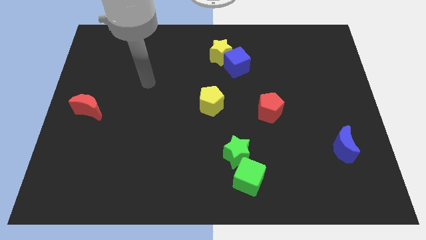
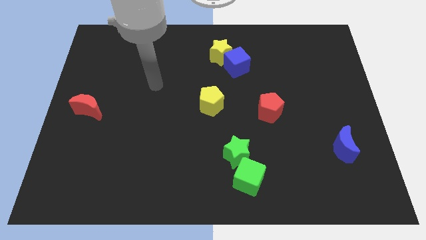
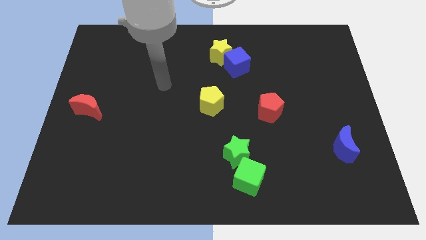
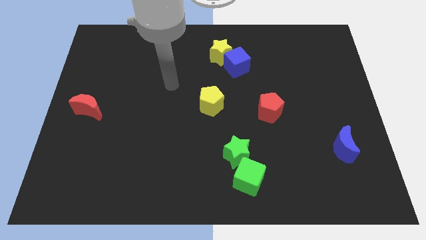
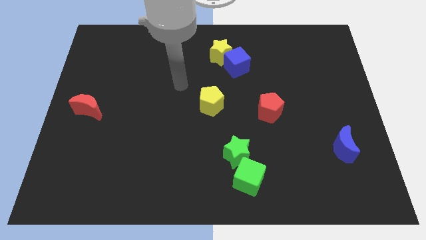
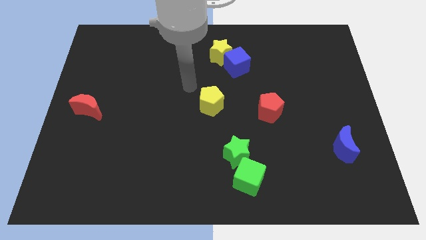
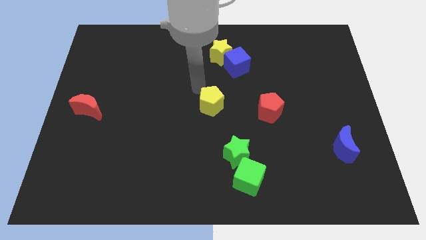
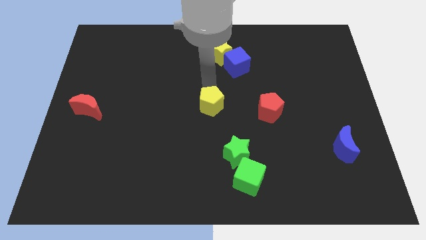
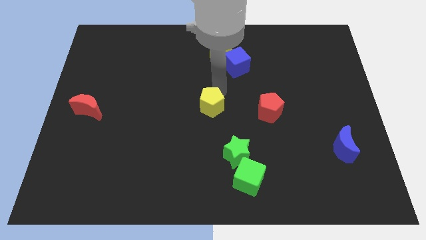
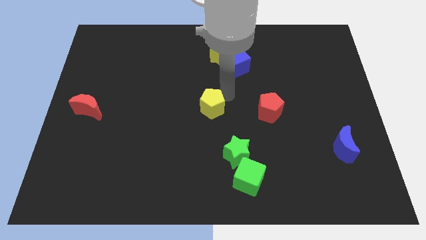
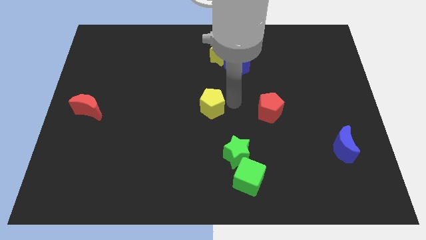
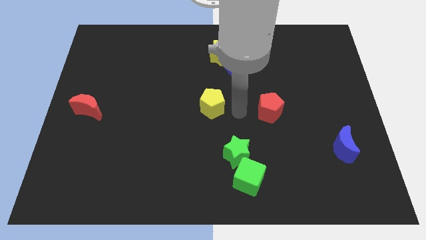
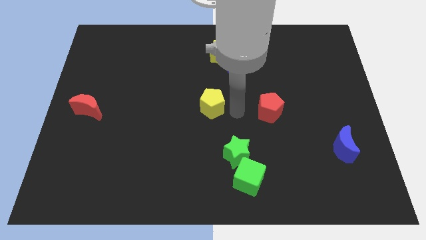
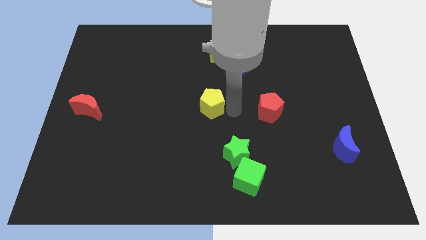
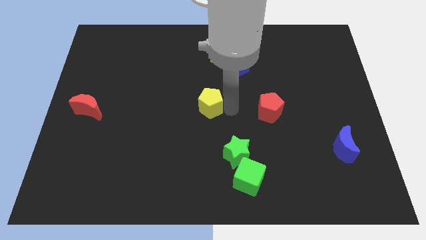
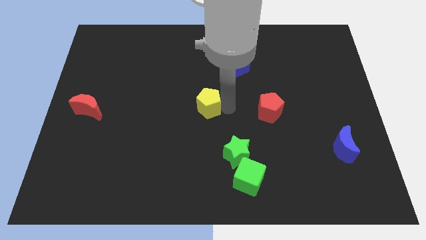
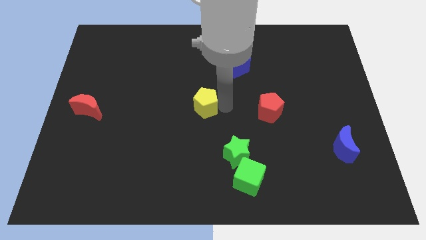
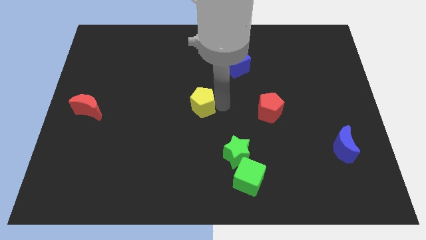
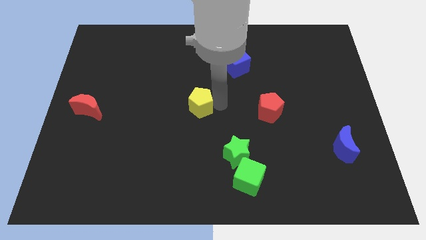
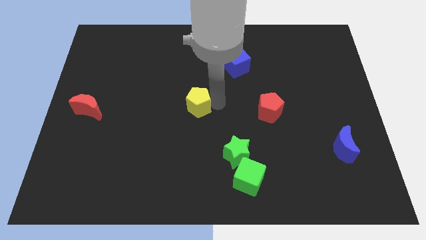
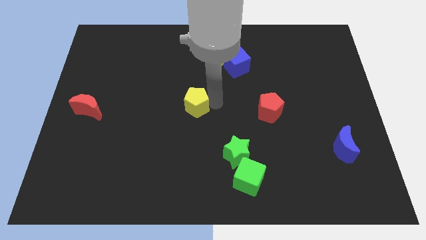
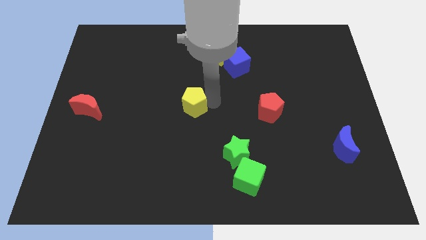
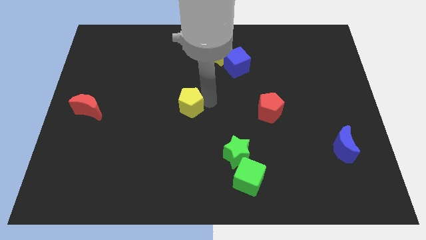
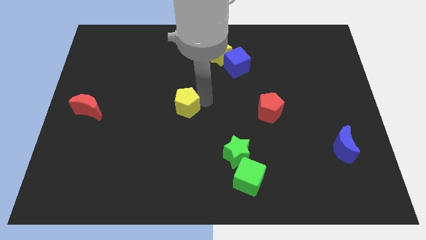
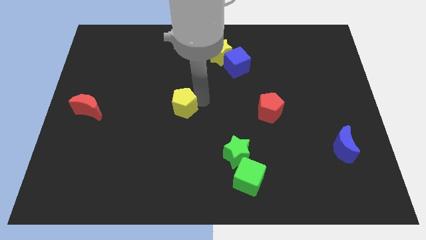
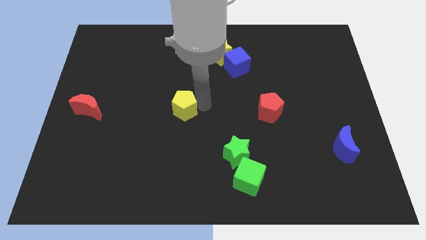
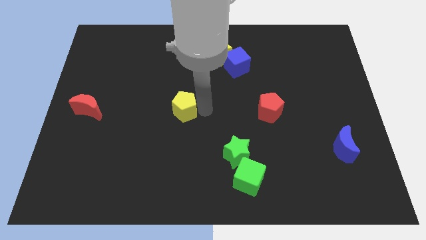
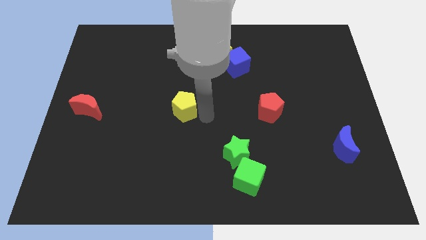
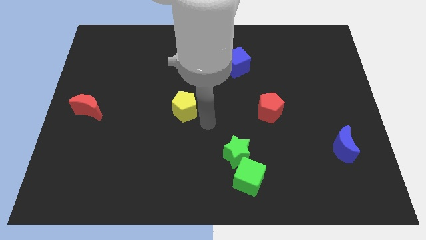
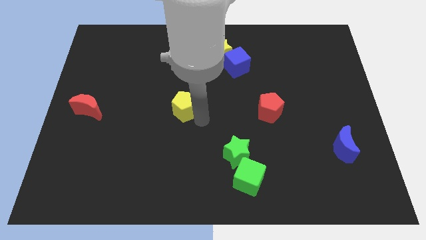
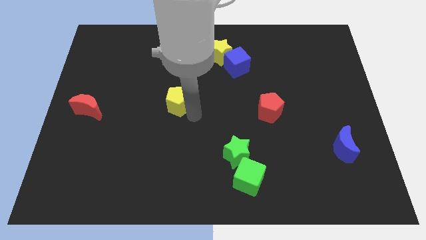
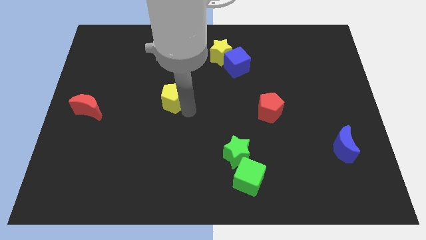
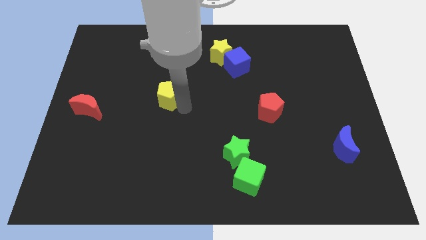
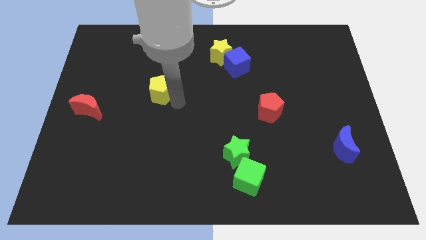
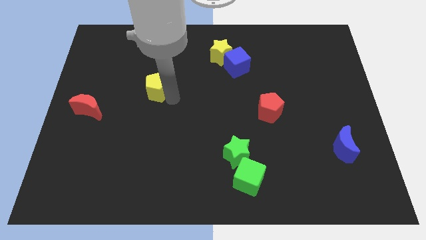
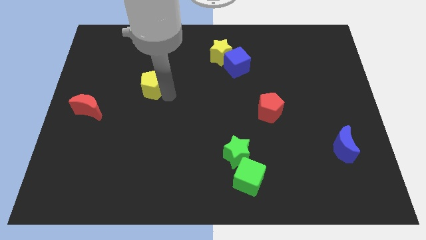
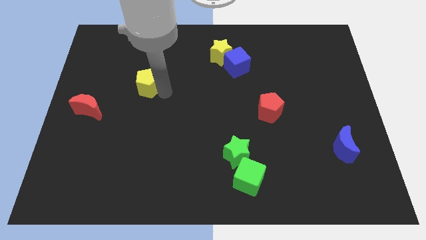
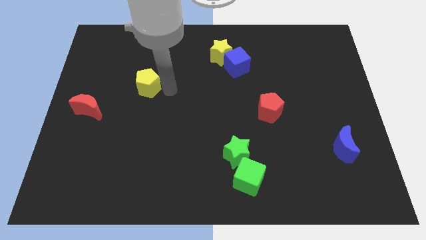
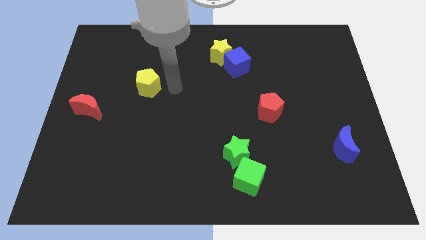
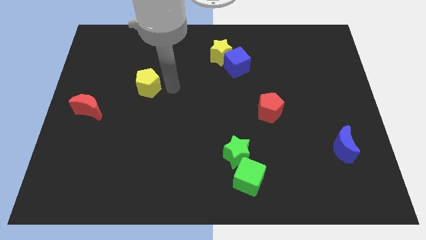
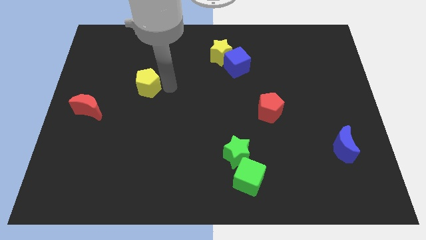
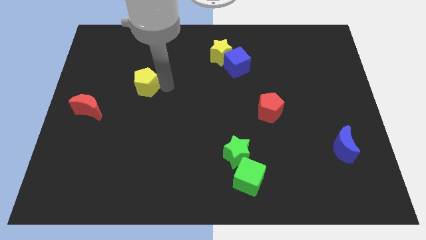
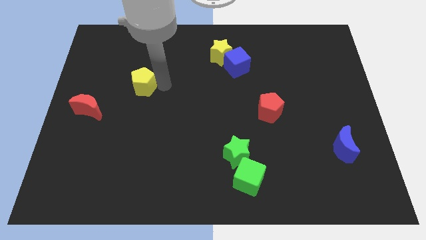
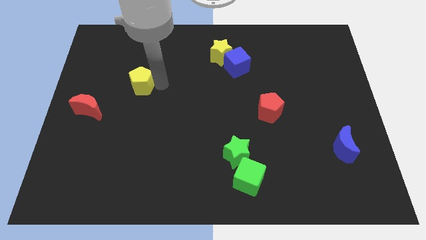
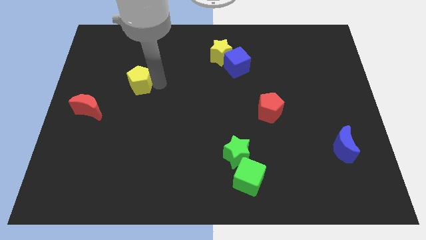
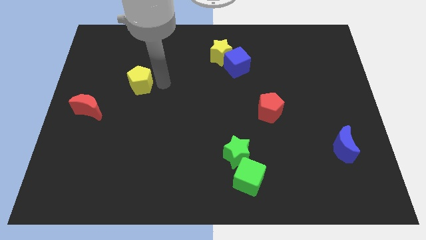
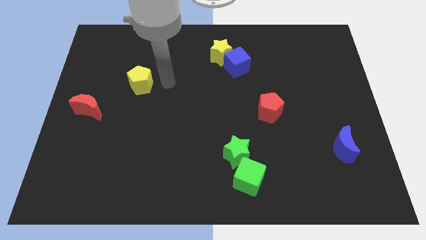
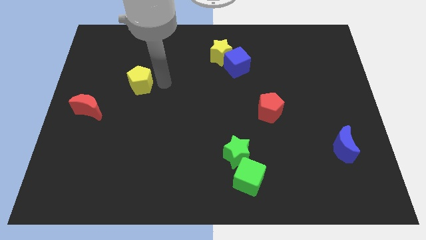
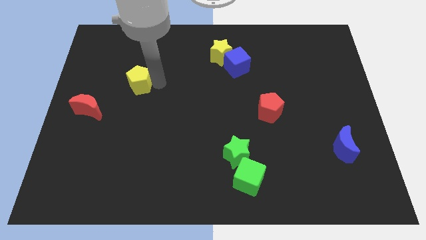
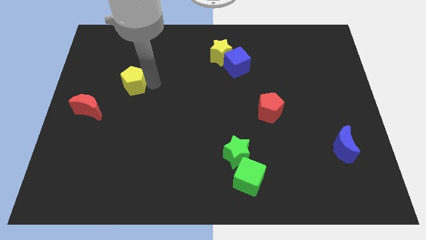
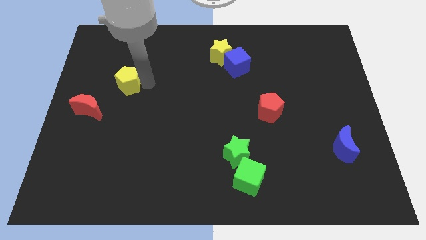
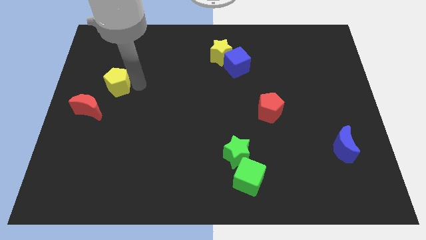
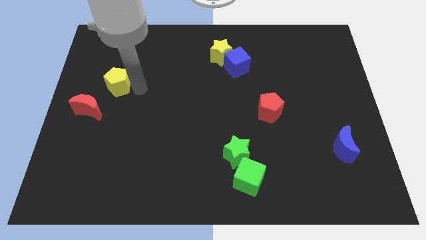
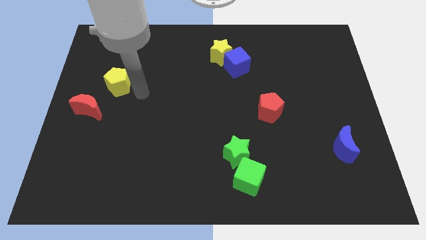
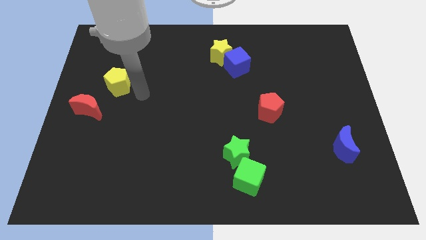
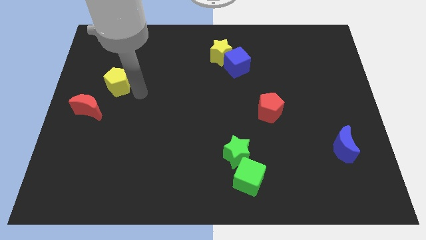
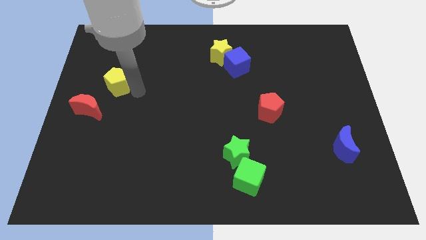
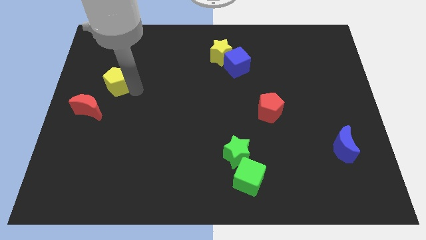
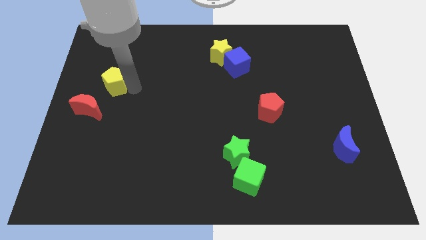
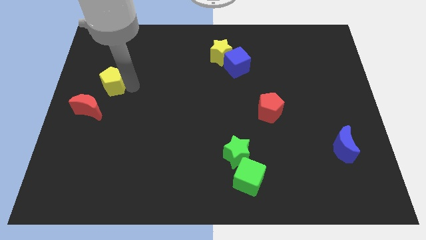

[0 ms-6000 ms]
put the yellow pentagon to the top side of the red moon

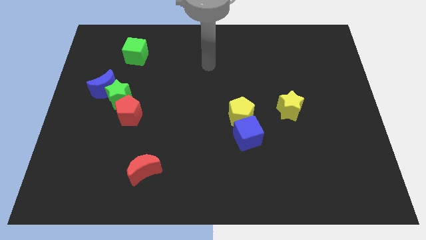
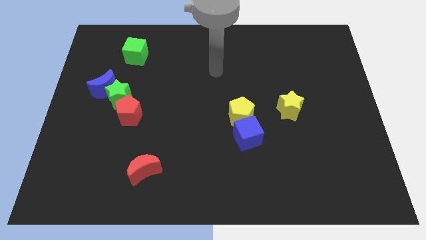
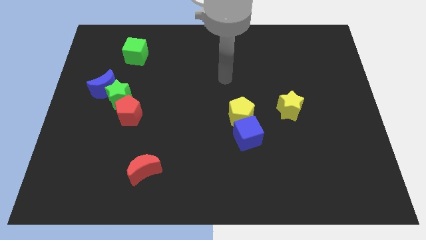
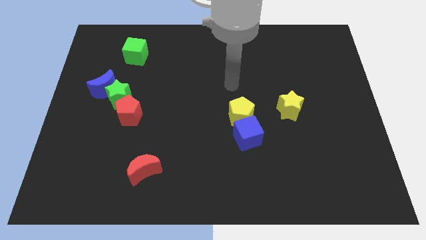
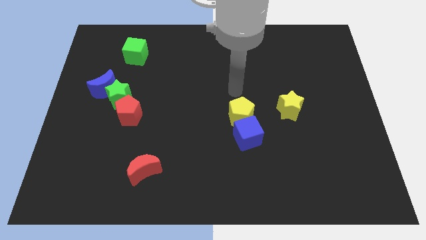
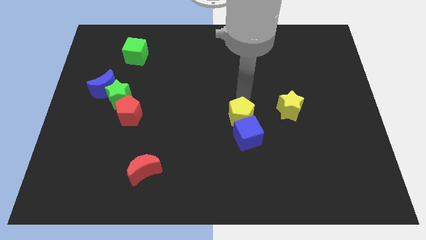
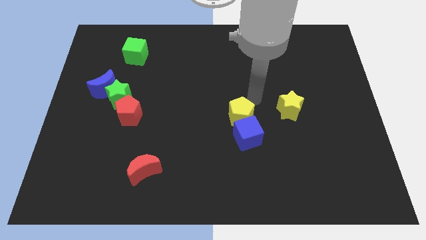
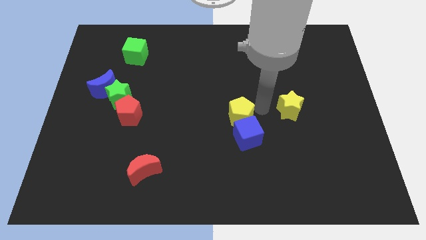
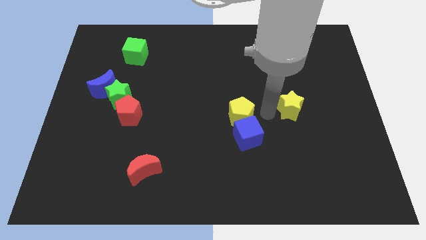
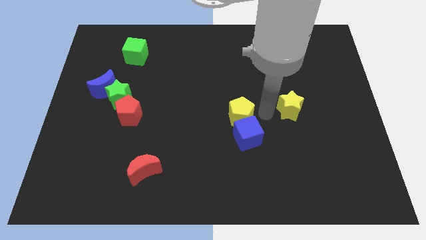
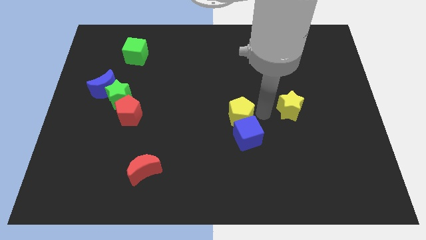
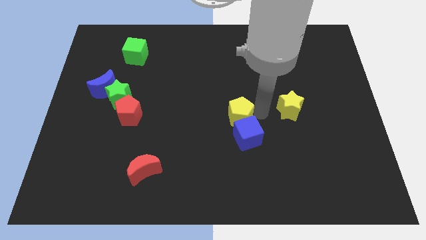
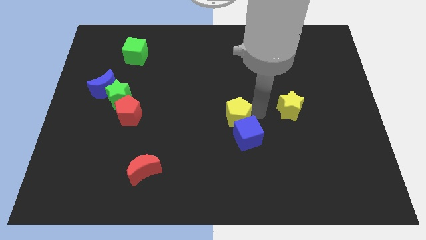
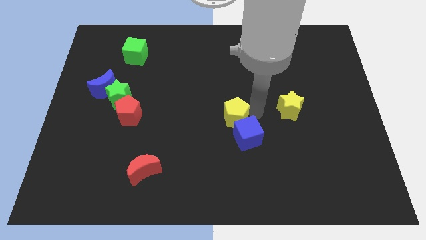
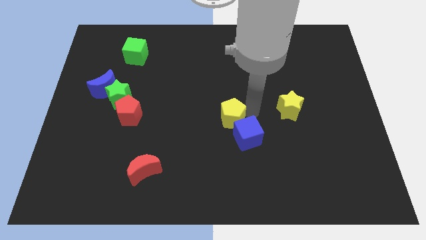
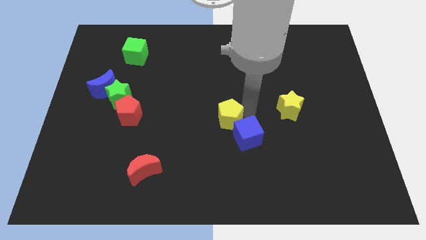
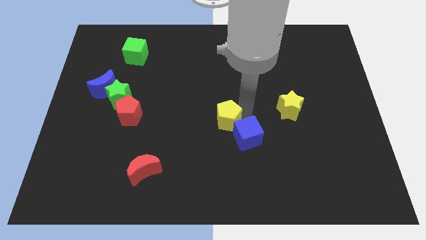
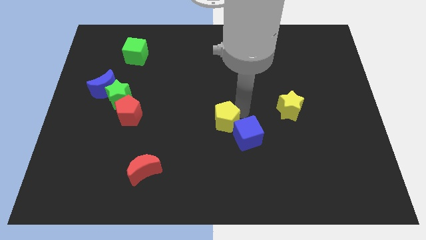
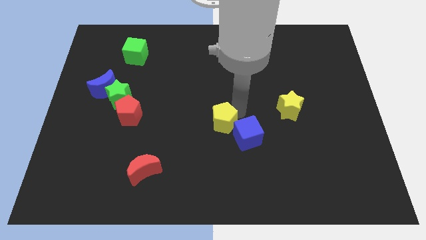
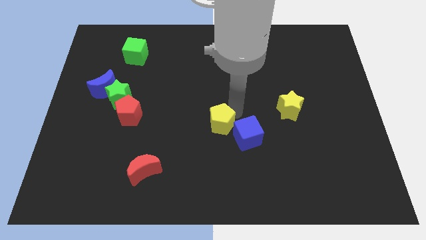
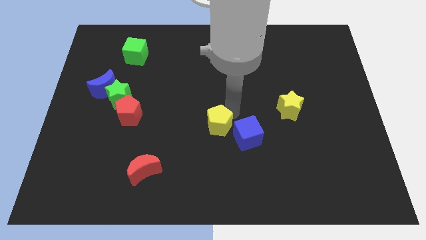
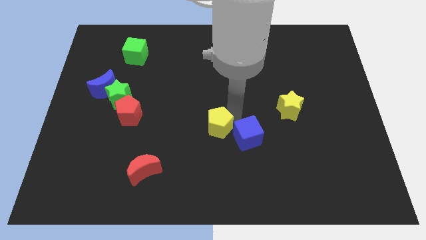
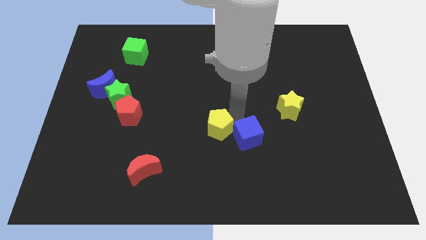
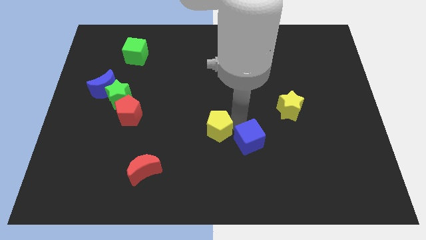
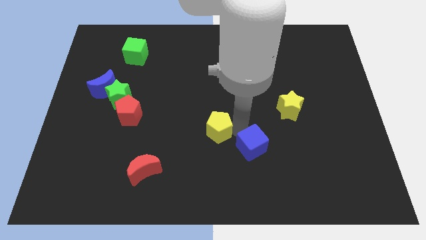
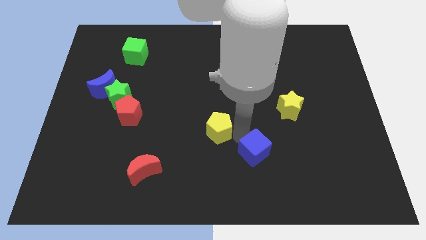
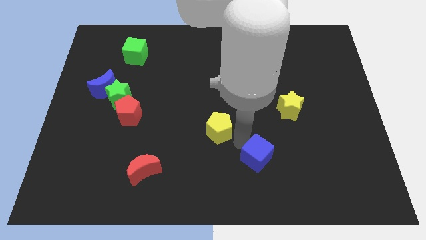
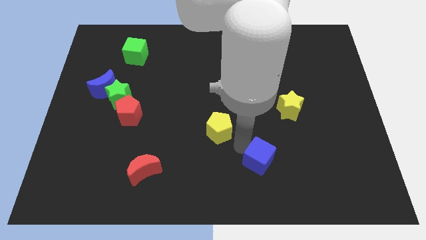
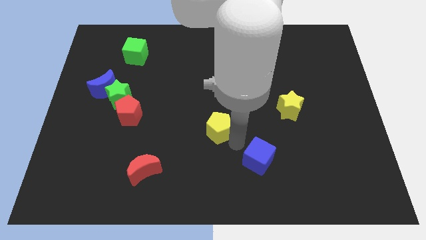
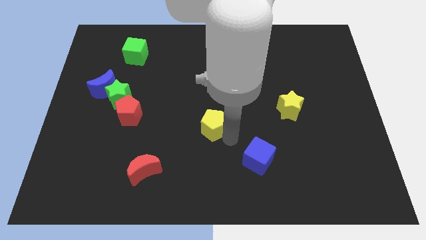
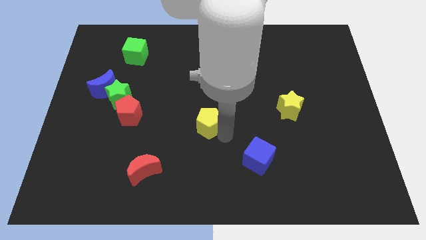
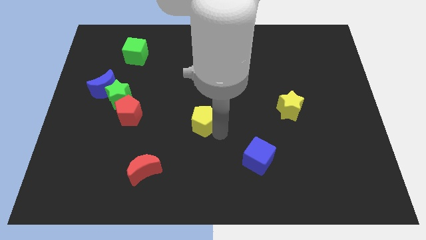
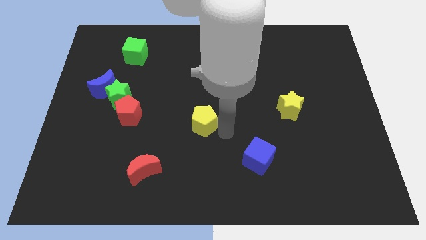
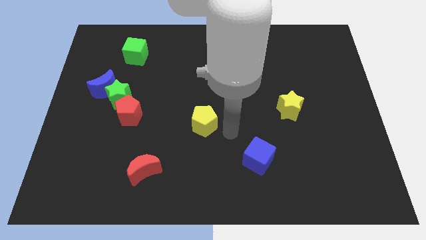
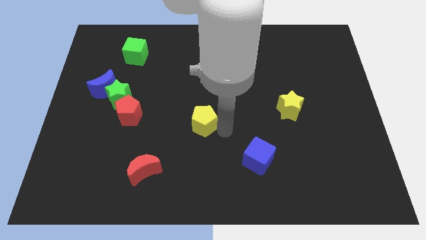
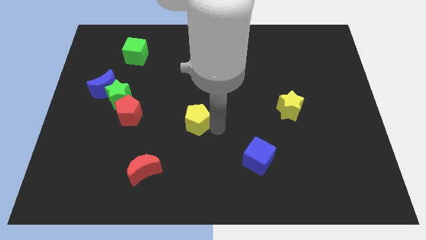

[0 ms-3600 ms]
slide the yellow pentagon just right of the red pentagon
